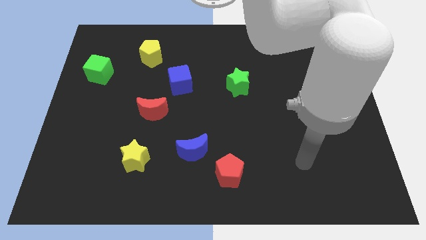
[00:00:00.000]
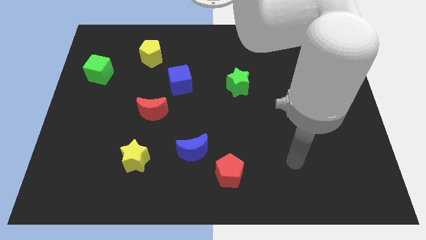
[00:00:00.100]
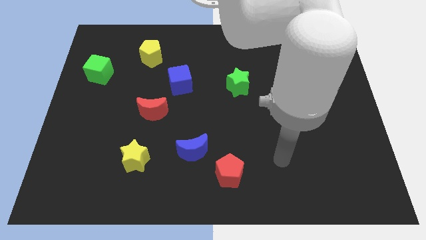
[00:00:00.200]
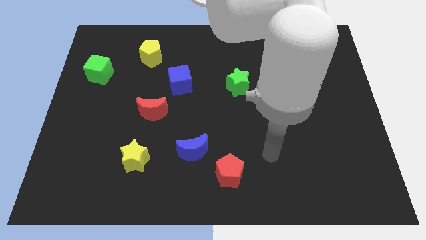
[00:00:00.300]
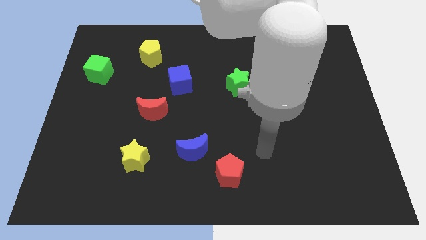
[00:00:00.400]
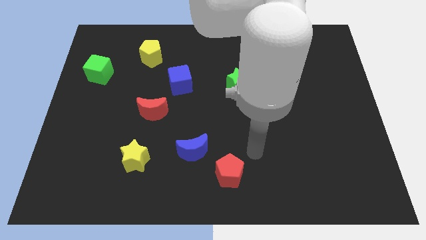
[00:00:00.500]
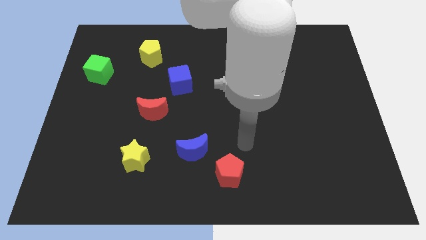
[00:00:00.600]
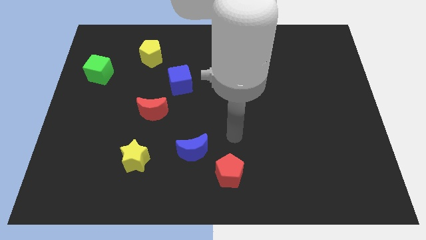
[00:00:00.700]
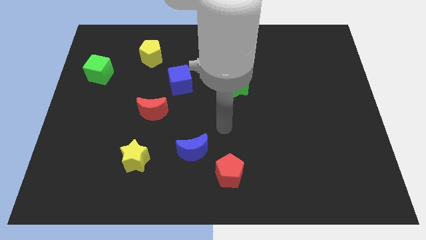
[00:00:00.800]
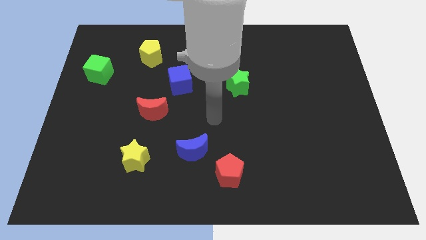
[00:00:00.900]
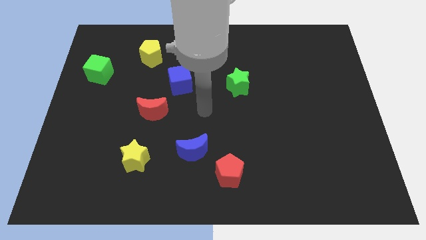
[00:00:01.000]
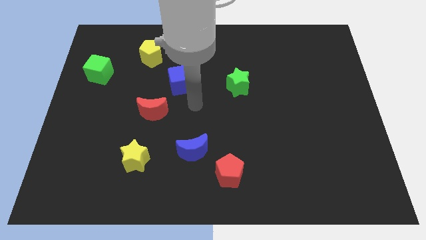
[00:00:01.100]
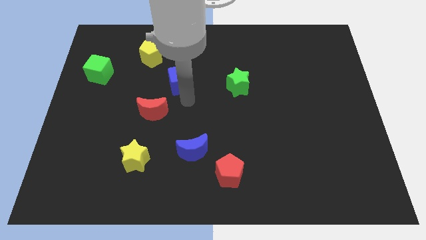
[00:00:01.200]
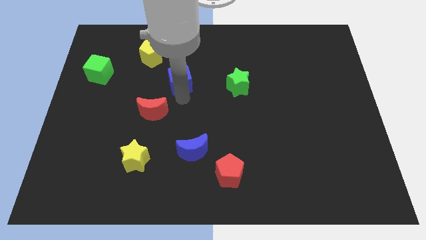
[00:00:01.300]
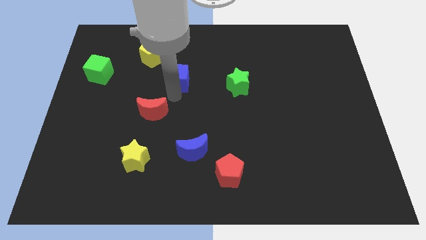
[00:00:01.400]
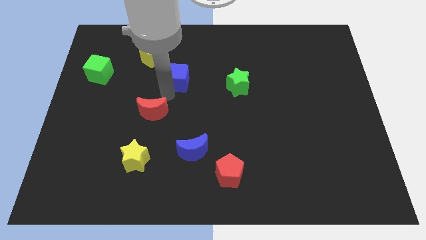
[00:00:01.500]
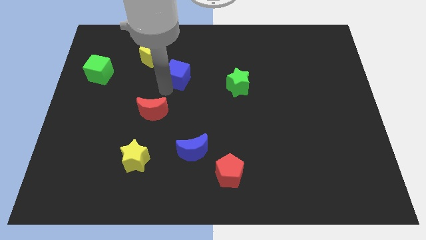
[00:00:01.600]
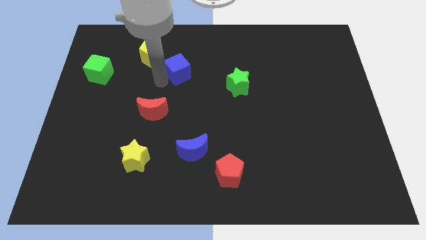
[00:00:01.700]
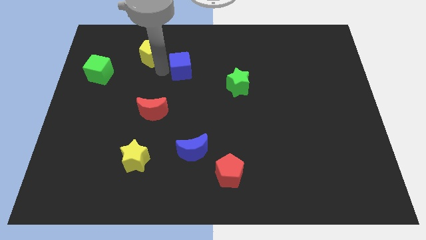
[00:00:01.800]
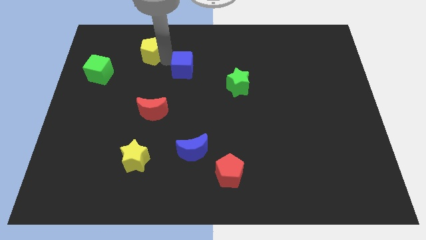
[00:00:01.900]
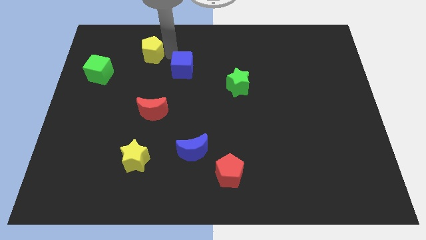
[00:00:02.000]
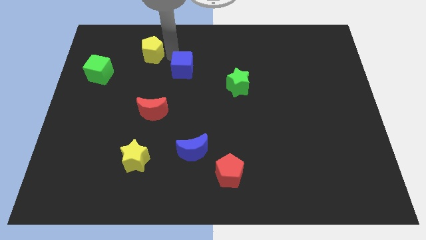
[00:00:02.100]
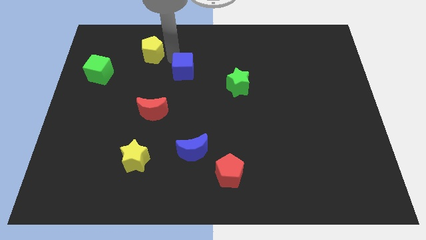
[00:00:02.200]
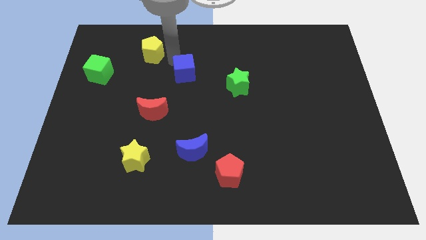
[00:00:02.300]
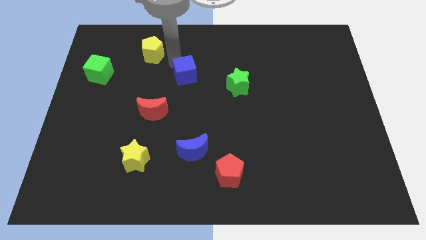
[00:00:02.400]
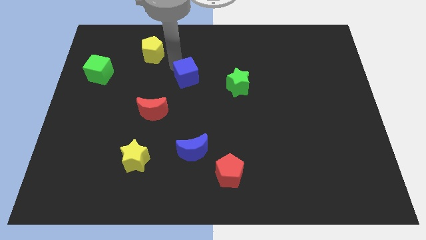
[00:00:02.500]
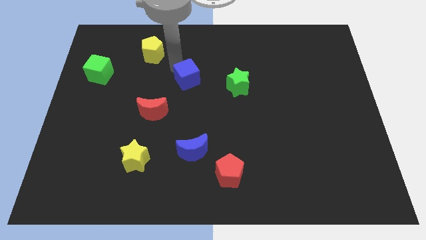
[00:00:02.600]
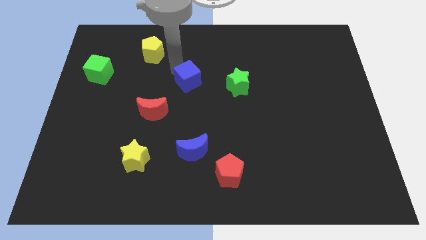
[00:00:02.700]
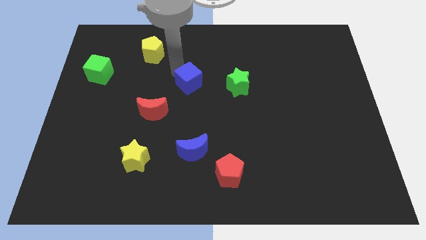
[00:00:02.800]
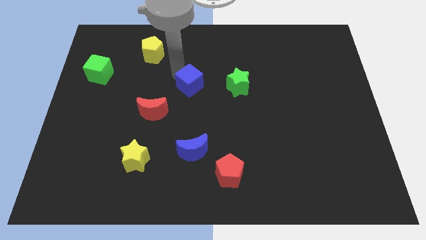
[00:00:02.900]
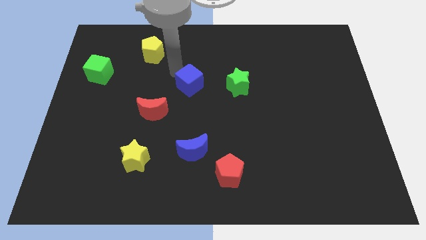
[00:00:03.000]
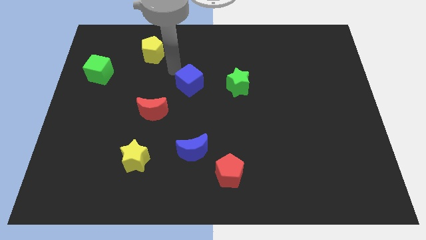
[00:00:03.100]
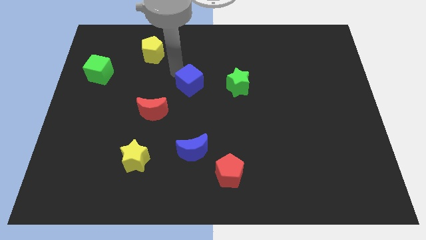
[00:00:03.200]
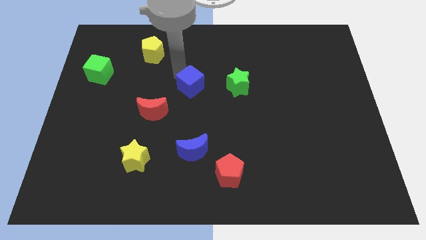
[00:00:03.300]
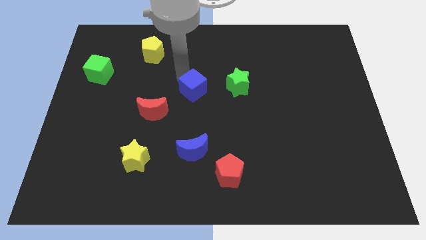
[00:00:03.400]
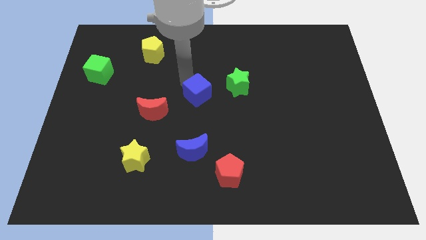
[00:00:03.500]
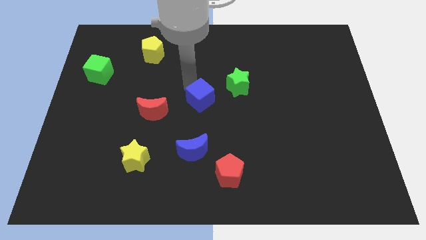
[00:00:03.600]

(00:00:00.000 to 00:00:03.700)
move the blue cube down and then to the right a little

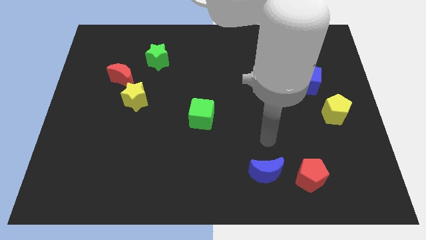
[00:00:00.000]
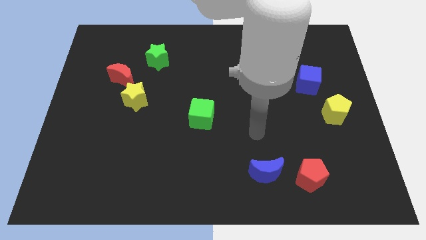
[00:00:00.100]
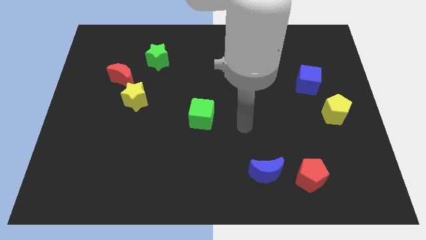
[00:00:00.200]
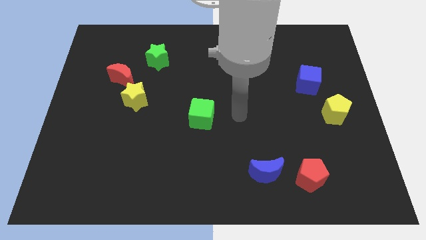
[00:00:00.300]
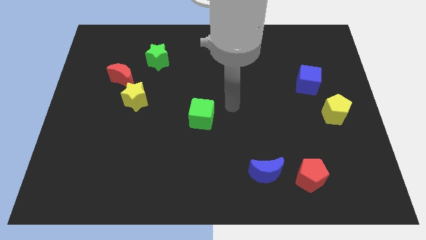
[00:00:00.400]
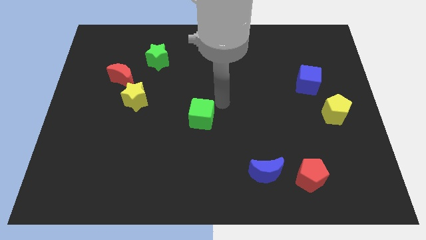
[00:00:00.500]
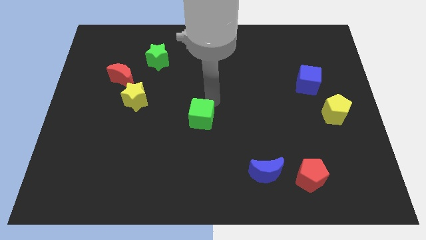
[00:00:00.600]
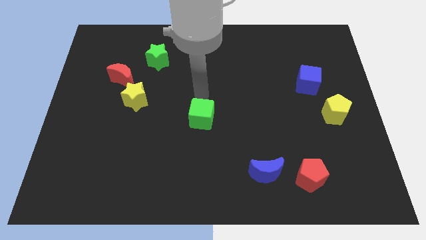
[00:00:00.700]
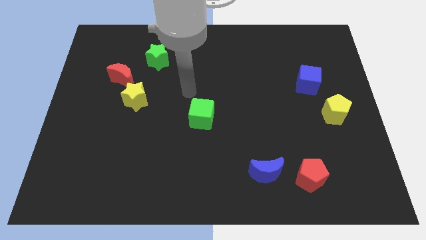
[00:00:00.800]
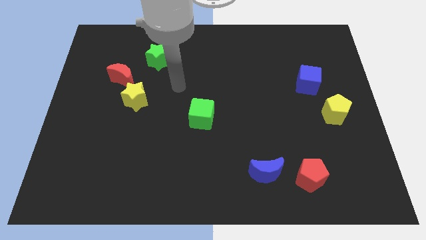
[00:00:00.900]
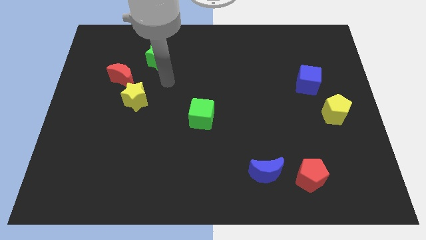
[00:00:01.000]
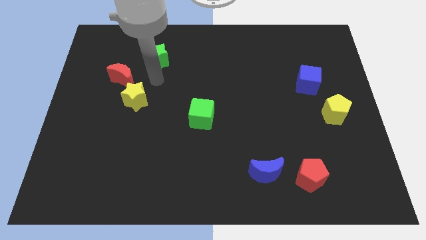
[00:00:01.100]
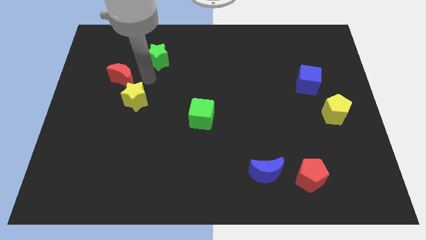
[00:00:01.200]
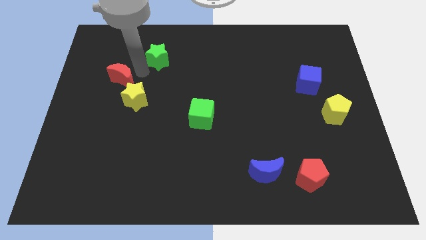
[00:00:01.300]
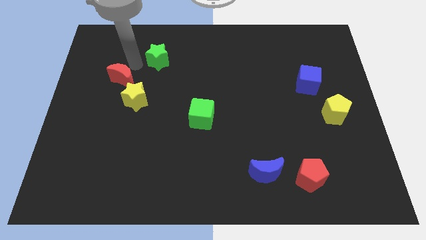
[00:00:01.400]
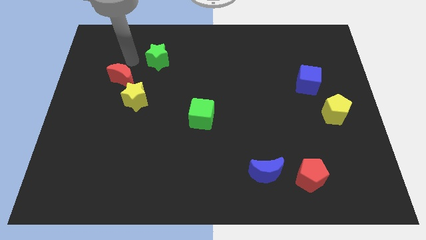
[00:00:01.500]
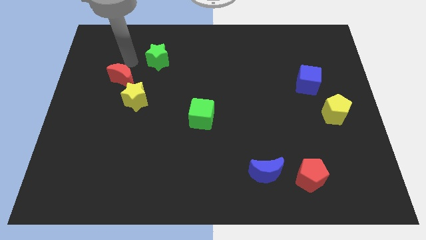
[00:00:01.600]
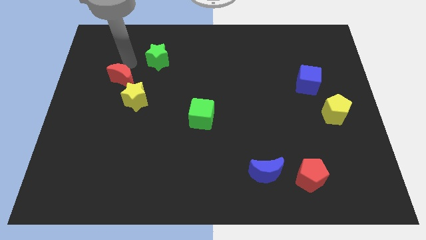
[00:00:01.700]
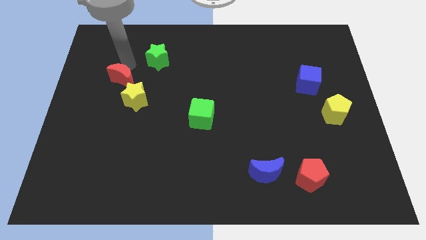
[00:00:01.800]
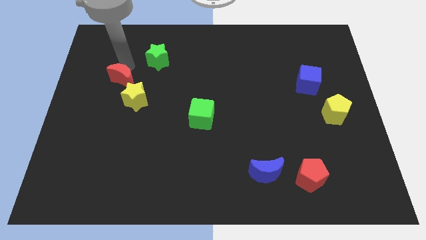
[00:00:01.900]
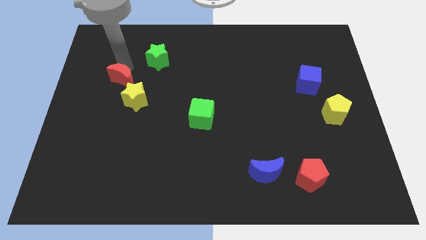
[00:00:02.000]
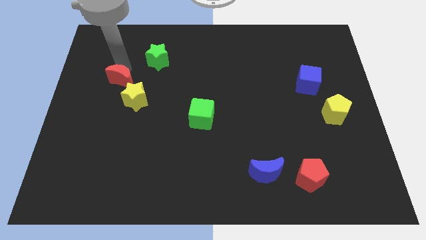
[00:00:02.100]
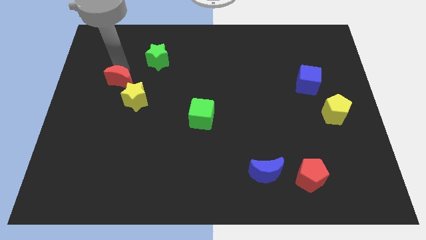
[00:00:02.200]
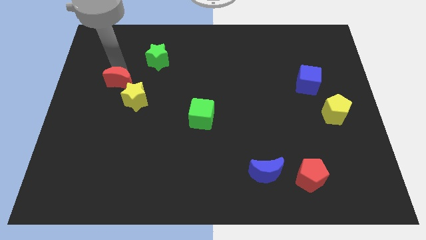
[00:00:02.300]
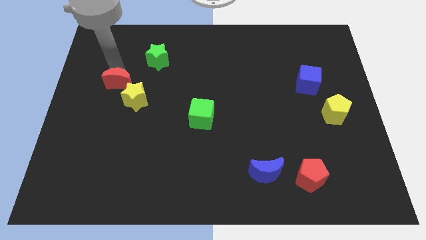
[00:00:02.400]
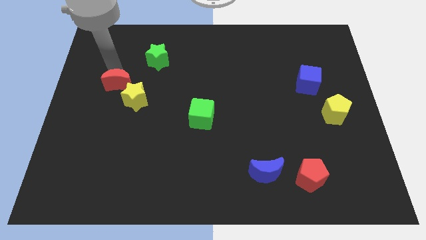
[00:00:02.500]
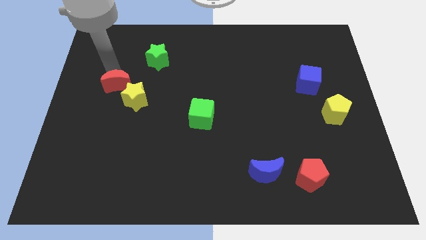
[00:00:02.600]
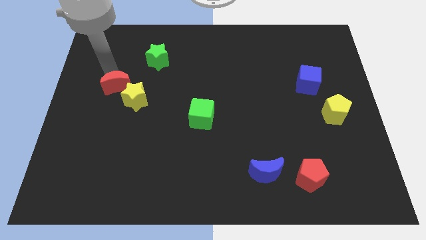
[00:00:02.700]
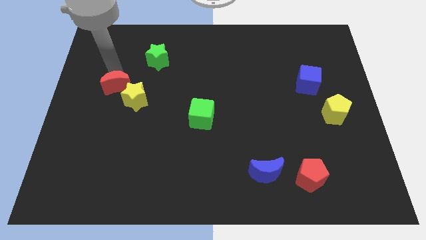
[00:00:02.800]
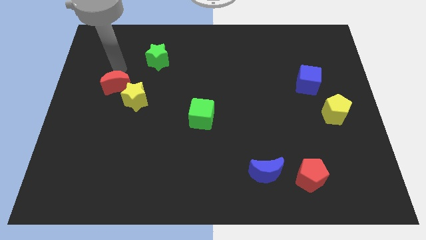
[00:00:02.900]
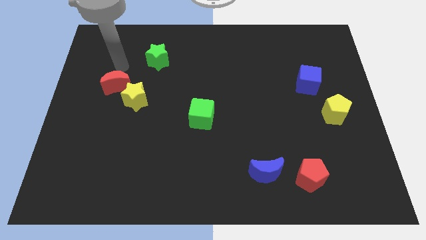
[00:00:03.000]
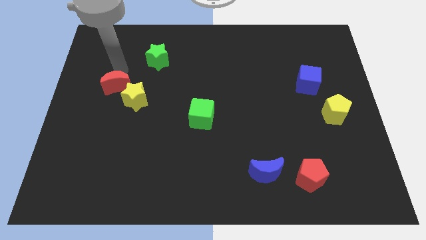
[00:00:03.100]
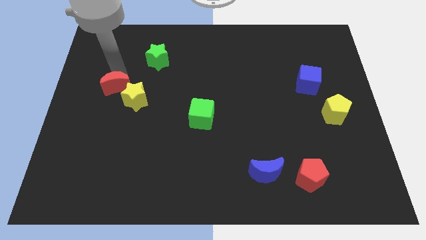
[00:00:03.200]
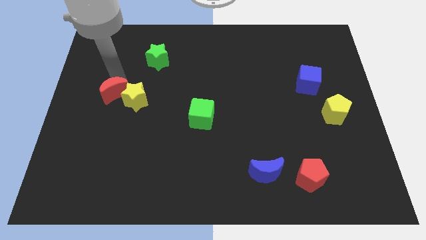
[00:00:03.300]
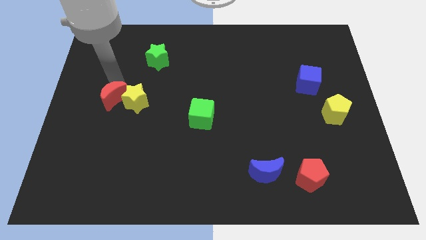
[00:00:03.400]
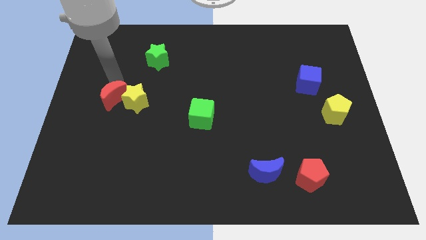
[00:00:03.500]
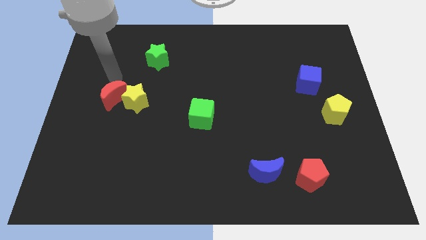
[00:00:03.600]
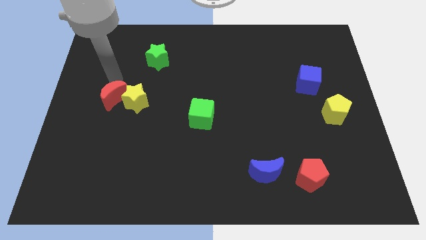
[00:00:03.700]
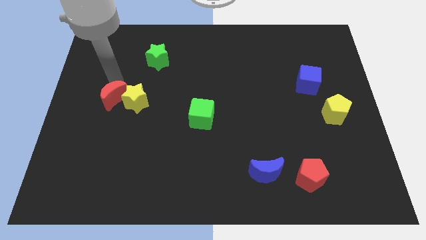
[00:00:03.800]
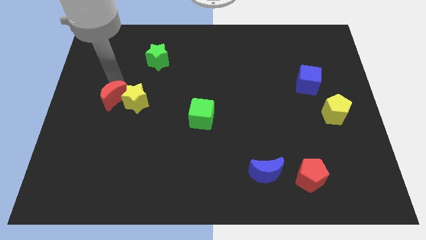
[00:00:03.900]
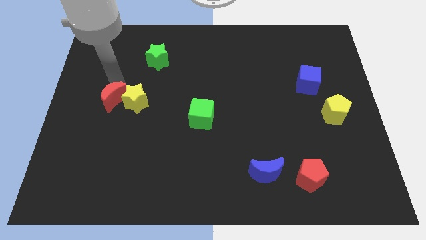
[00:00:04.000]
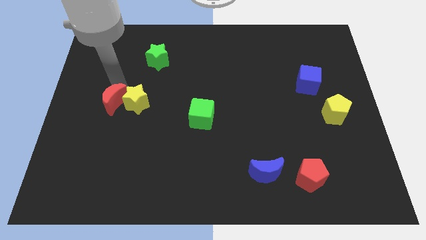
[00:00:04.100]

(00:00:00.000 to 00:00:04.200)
push the red moon a little down
